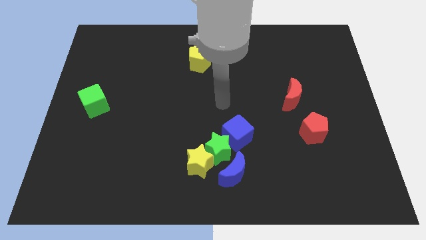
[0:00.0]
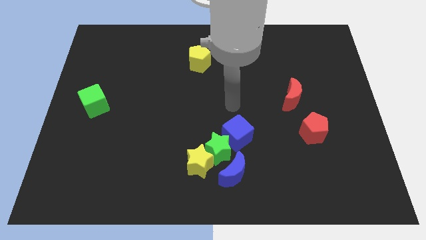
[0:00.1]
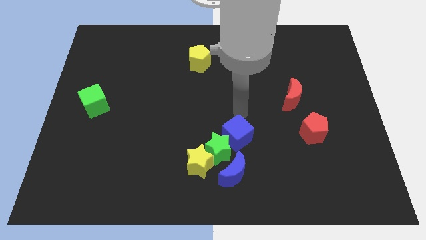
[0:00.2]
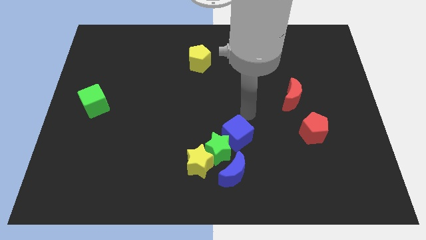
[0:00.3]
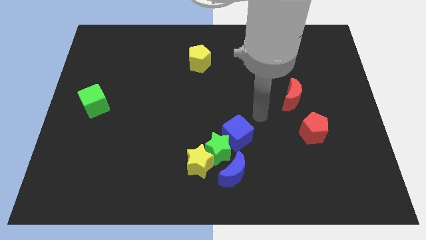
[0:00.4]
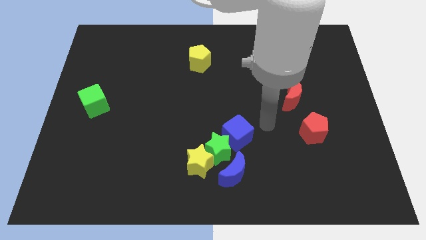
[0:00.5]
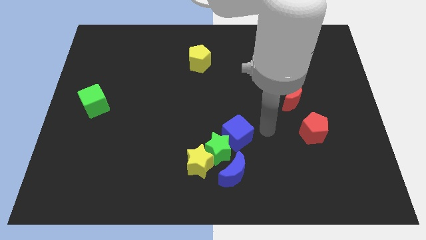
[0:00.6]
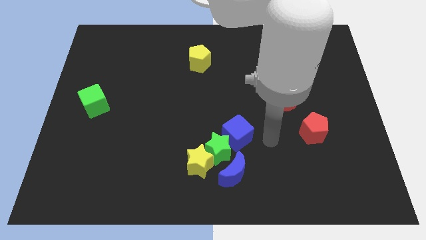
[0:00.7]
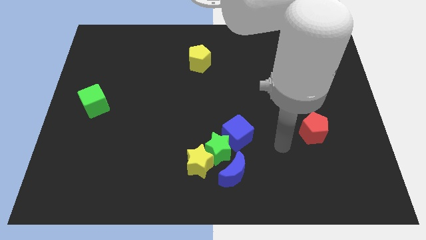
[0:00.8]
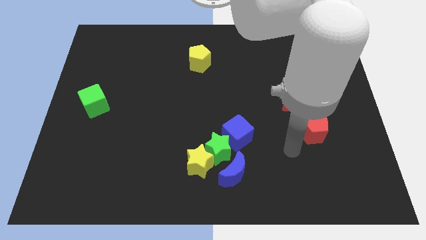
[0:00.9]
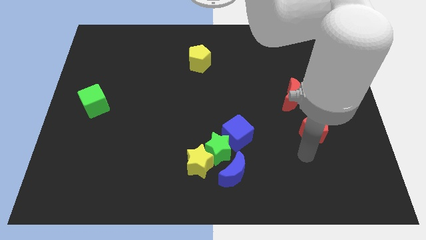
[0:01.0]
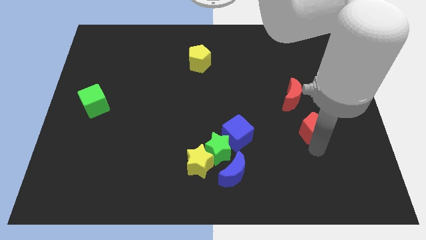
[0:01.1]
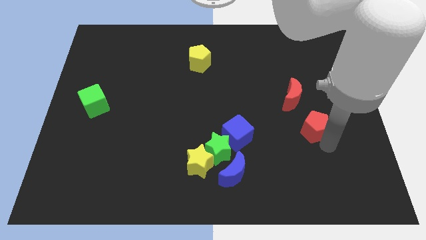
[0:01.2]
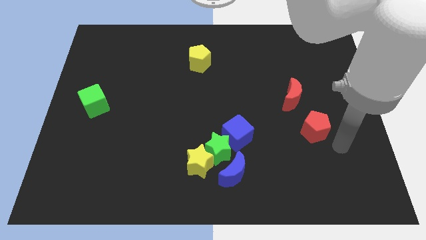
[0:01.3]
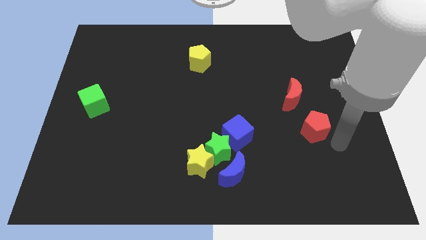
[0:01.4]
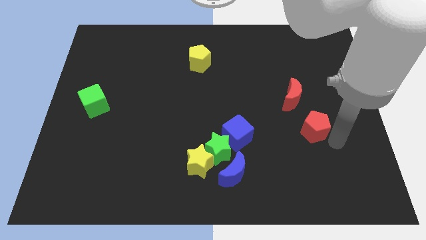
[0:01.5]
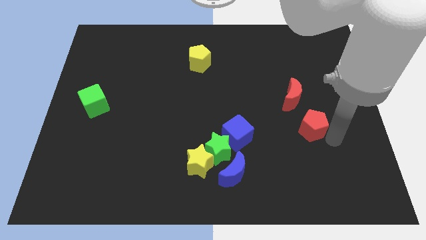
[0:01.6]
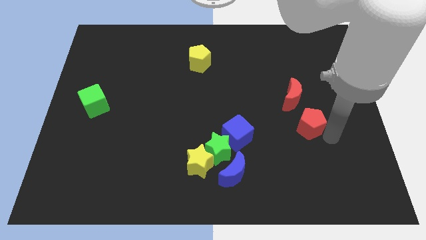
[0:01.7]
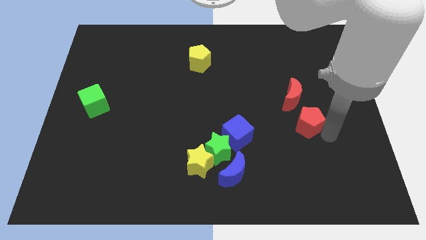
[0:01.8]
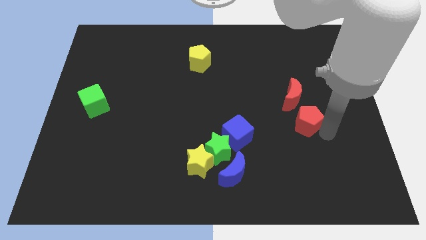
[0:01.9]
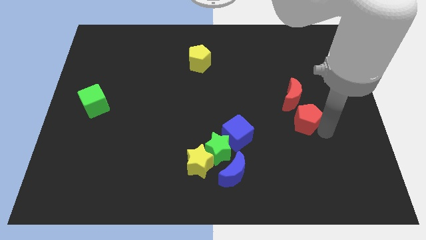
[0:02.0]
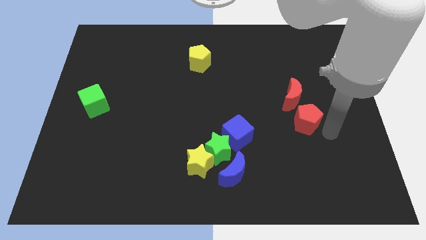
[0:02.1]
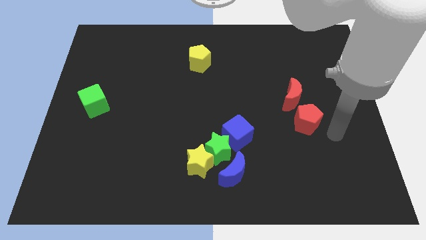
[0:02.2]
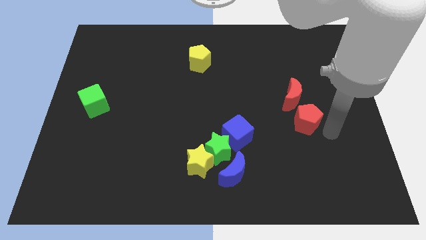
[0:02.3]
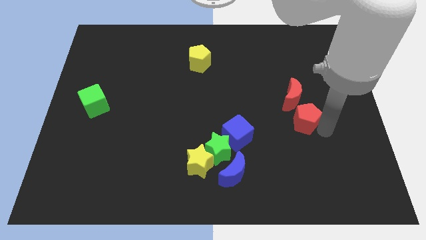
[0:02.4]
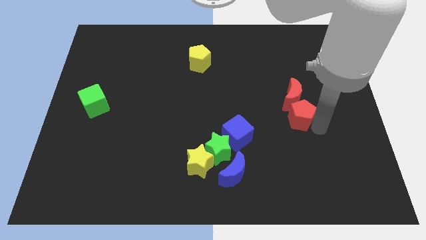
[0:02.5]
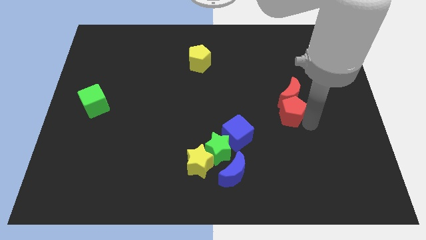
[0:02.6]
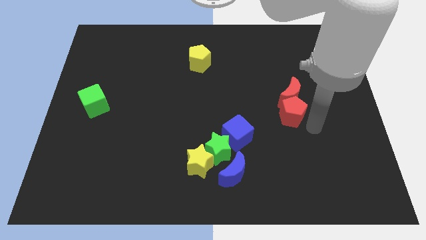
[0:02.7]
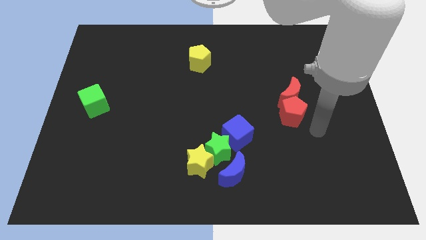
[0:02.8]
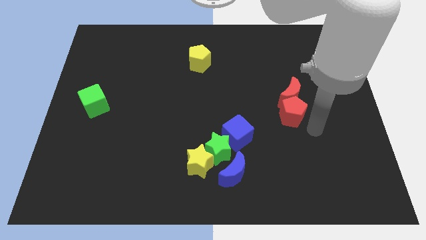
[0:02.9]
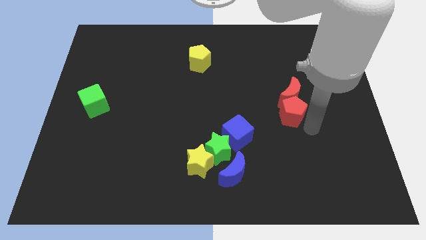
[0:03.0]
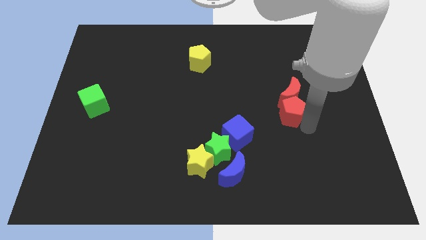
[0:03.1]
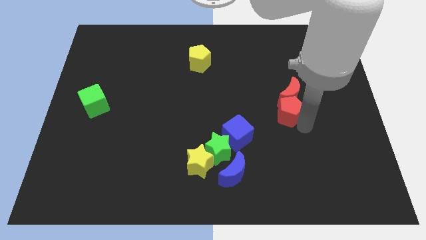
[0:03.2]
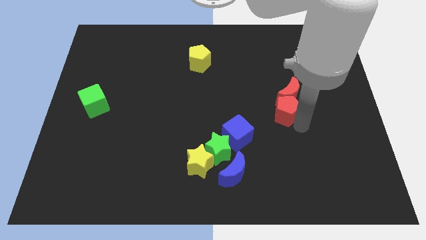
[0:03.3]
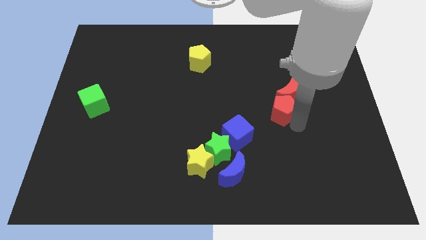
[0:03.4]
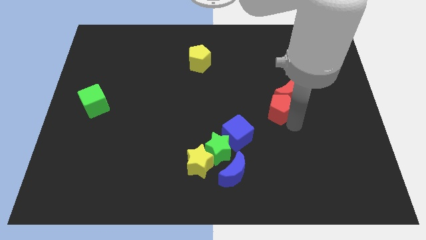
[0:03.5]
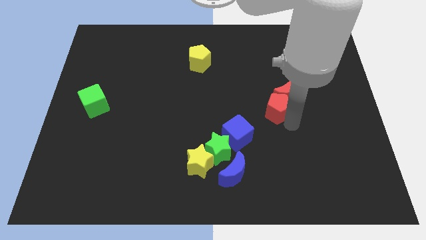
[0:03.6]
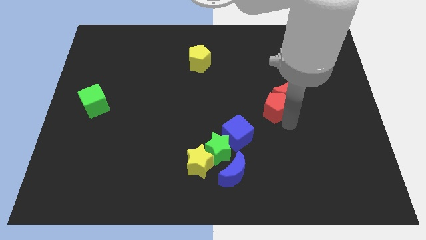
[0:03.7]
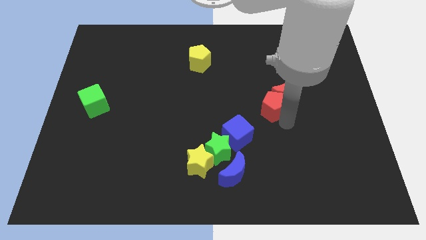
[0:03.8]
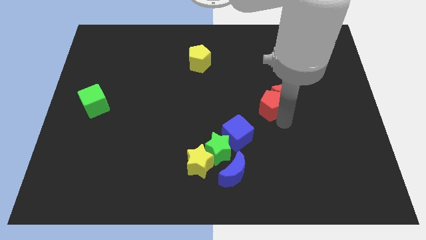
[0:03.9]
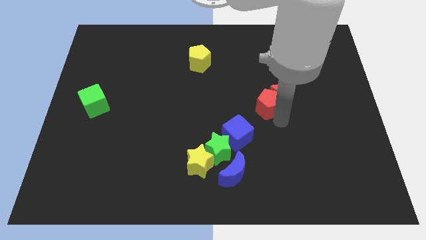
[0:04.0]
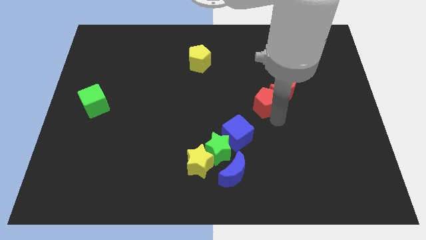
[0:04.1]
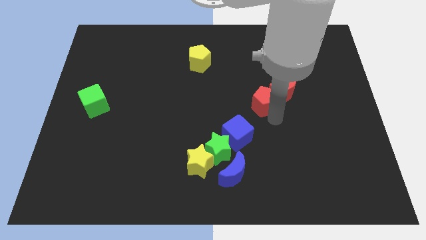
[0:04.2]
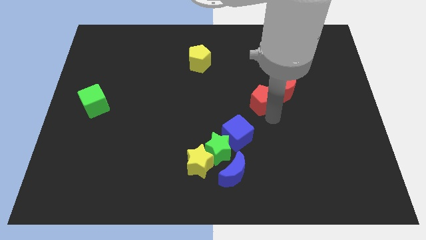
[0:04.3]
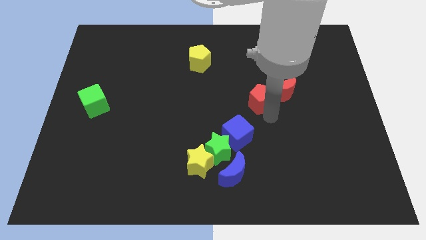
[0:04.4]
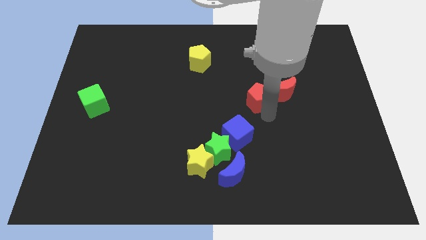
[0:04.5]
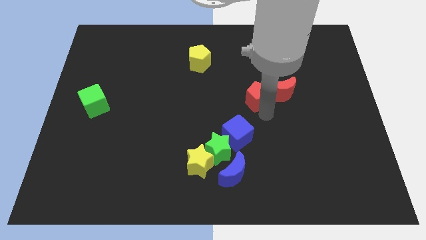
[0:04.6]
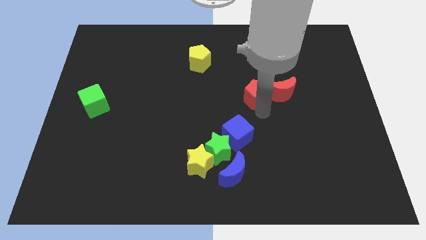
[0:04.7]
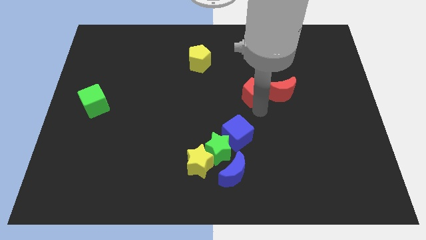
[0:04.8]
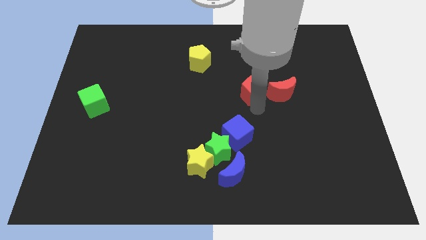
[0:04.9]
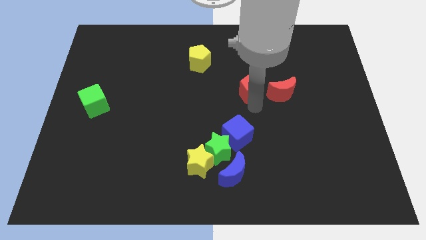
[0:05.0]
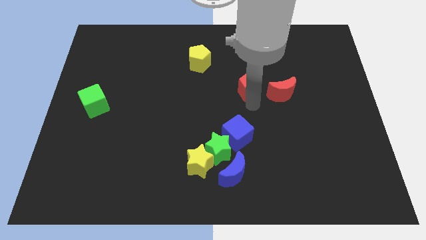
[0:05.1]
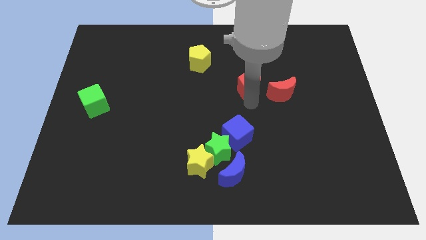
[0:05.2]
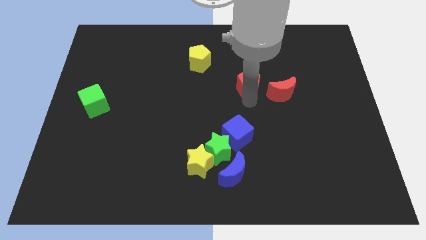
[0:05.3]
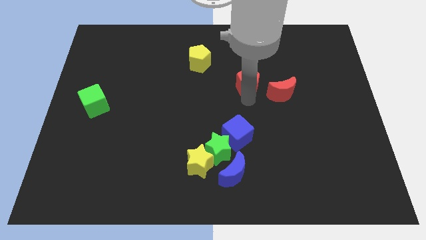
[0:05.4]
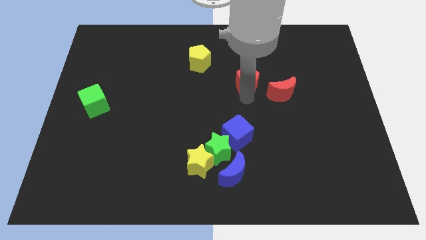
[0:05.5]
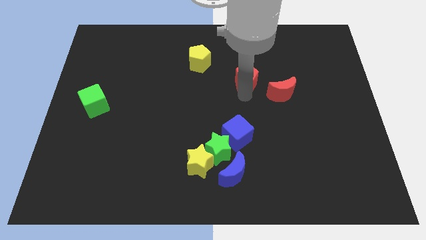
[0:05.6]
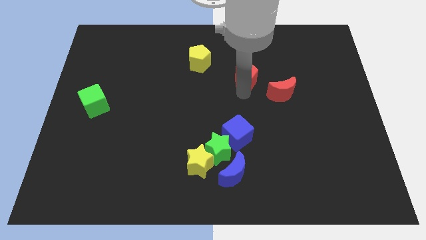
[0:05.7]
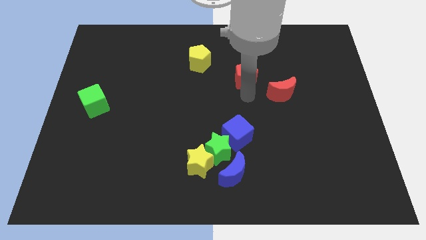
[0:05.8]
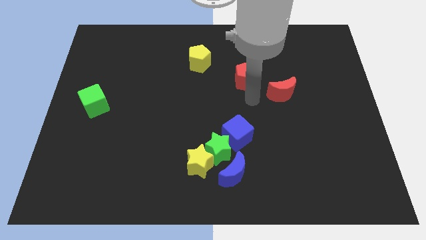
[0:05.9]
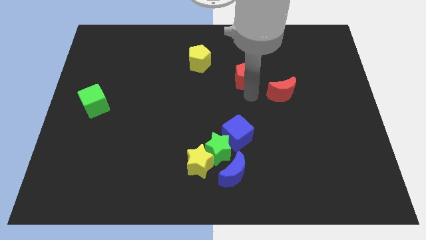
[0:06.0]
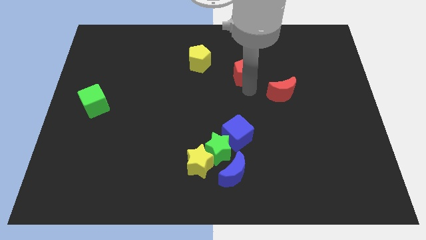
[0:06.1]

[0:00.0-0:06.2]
put the red pentagon to the right side of the yellow pentagon

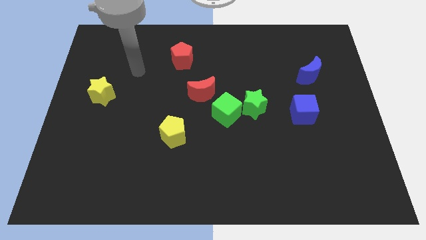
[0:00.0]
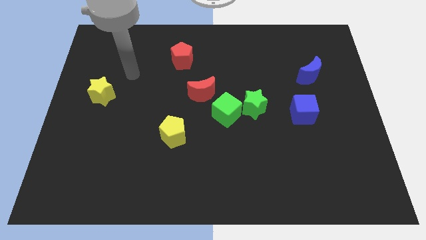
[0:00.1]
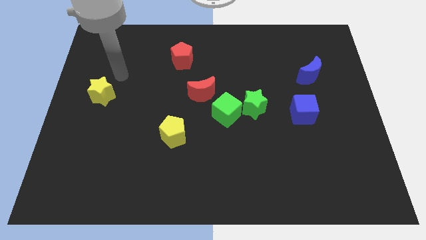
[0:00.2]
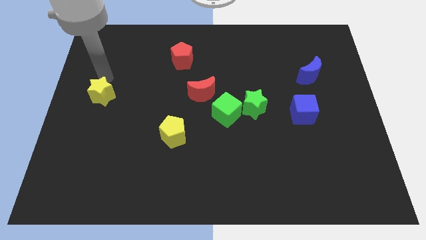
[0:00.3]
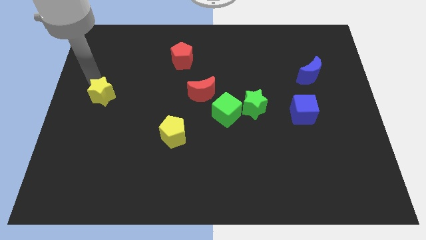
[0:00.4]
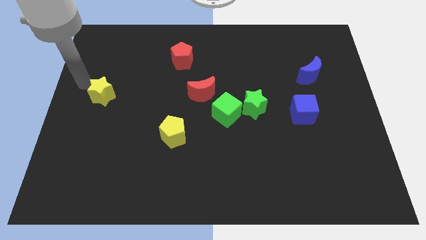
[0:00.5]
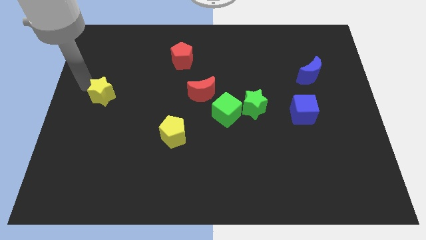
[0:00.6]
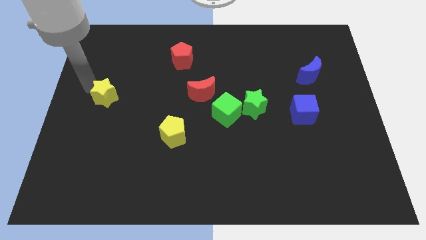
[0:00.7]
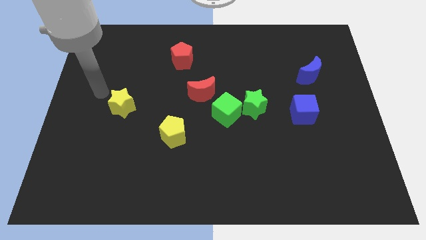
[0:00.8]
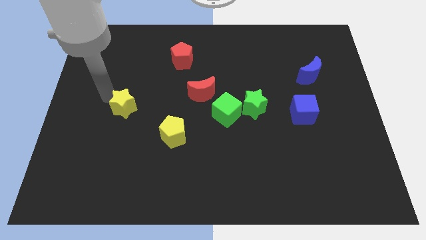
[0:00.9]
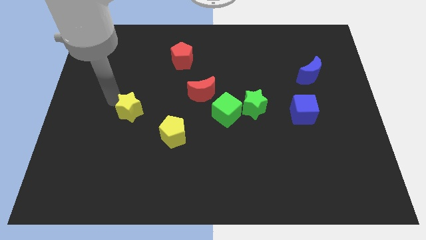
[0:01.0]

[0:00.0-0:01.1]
slide the yellow star to the top left of the yellow pentagon

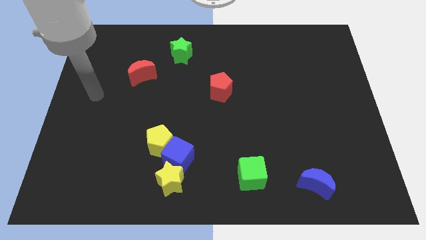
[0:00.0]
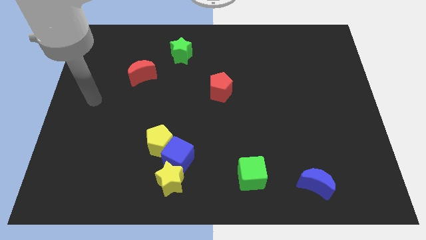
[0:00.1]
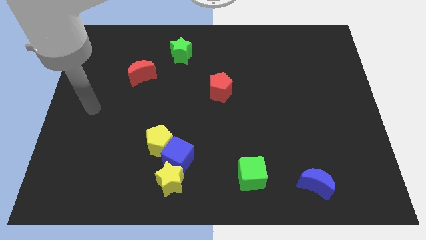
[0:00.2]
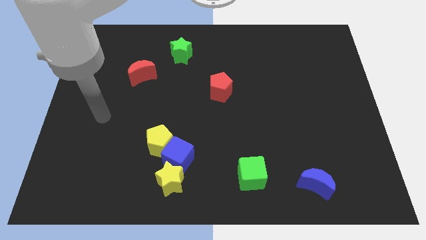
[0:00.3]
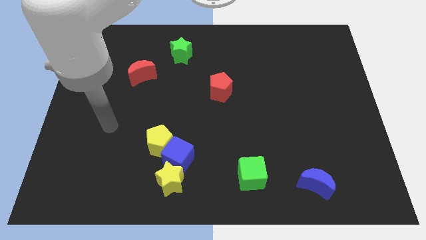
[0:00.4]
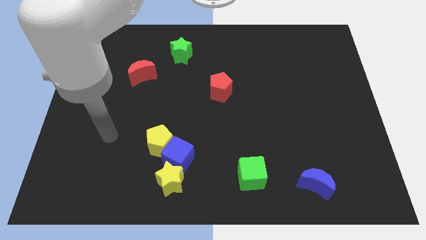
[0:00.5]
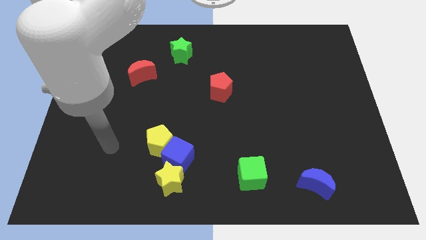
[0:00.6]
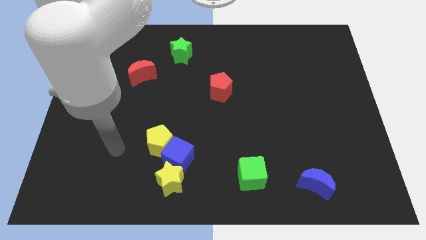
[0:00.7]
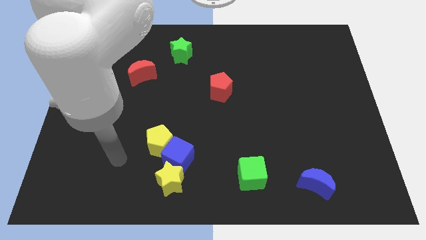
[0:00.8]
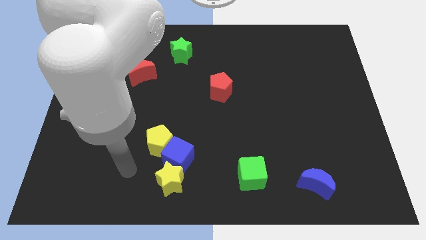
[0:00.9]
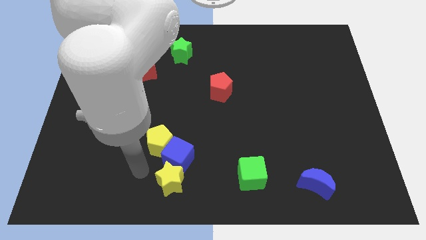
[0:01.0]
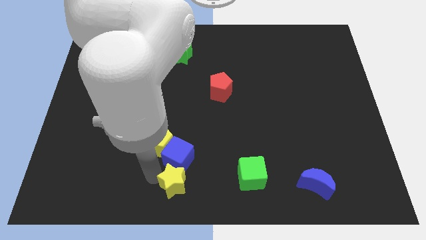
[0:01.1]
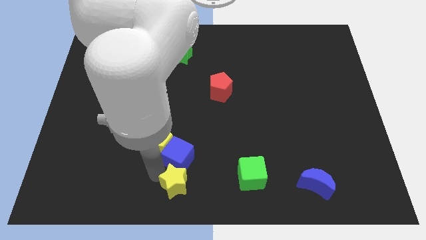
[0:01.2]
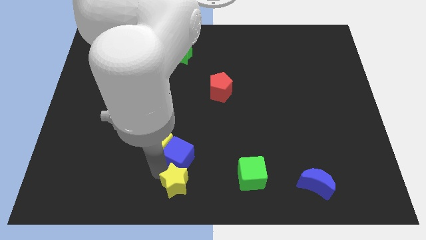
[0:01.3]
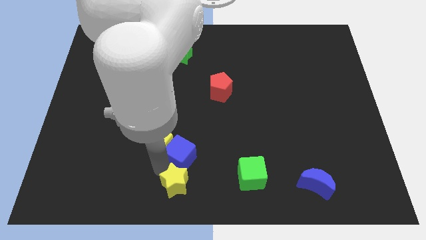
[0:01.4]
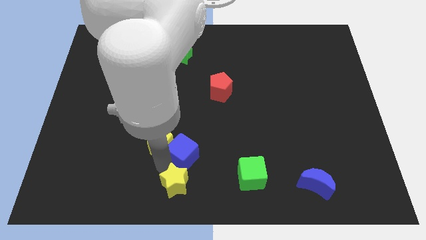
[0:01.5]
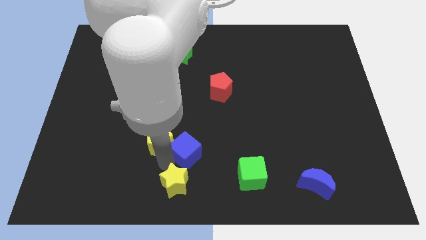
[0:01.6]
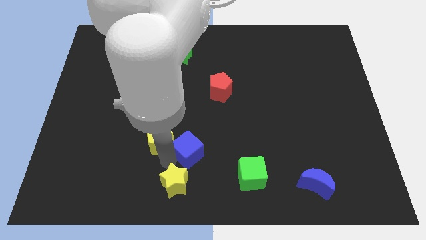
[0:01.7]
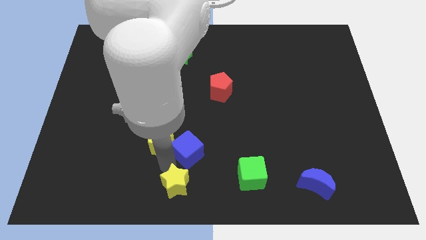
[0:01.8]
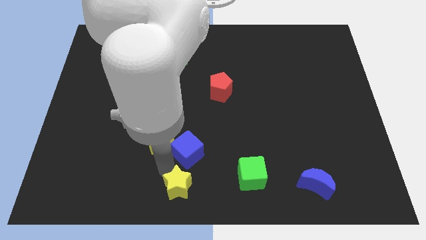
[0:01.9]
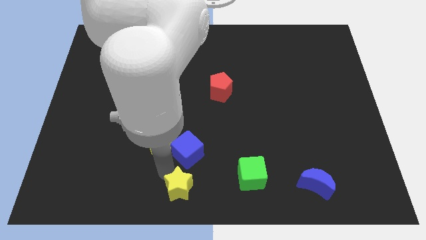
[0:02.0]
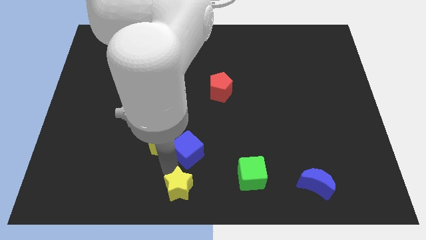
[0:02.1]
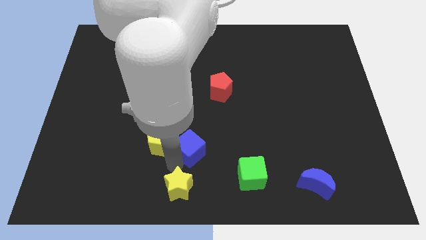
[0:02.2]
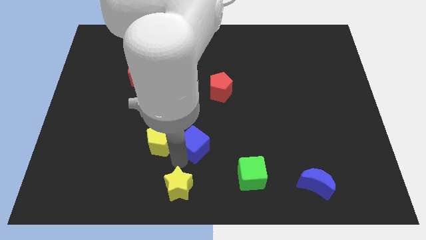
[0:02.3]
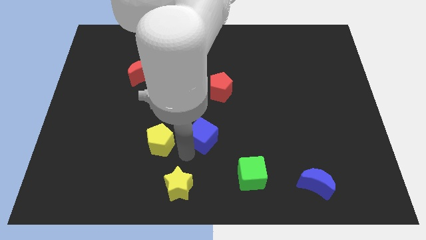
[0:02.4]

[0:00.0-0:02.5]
move the blue cube to the bottom of the red pentagon
